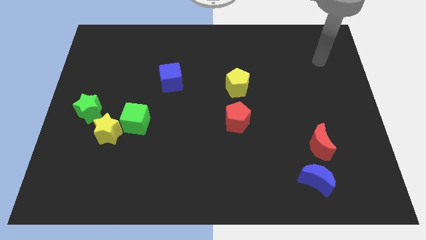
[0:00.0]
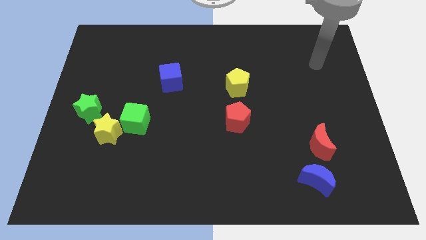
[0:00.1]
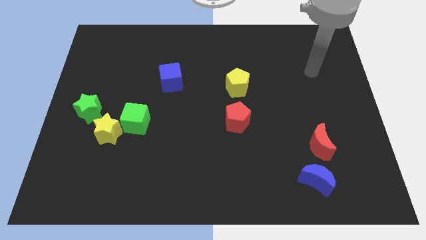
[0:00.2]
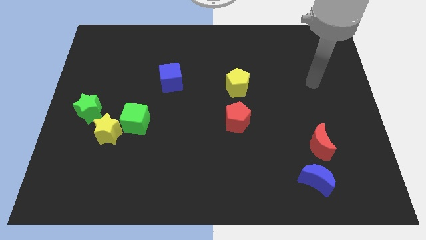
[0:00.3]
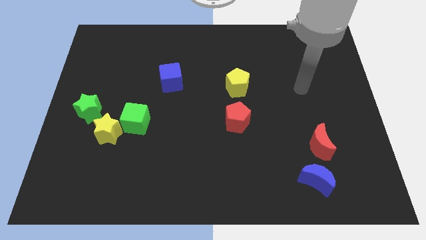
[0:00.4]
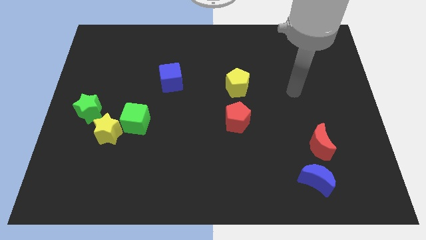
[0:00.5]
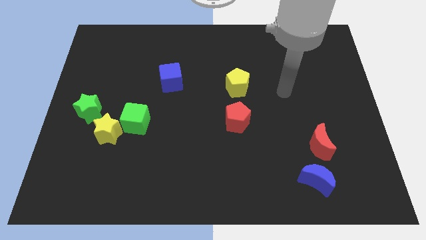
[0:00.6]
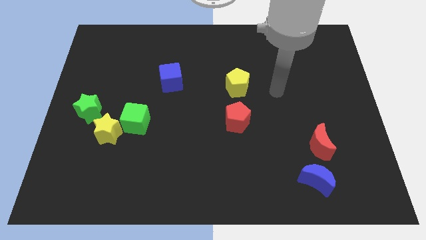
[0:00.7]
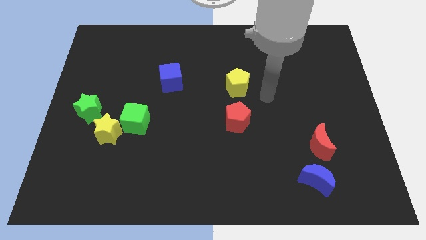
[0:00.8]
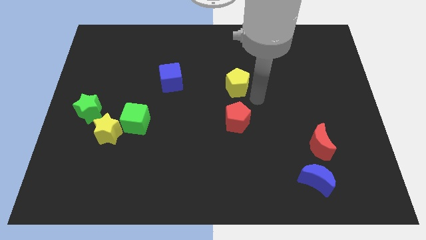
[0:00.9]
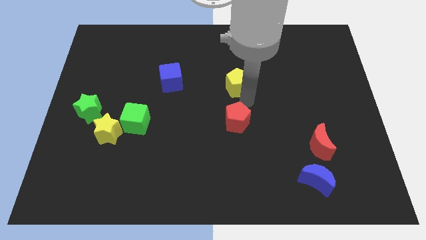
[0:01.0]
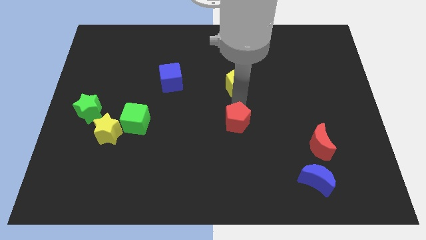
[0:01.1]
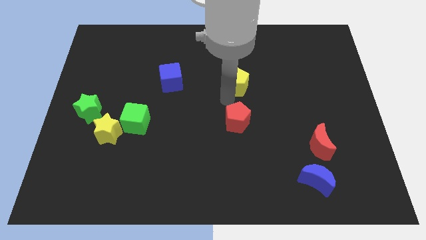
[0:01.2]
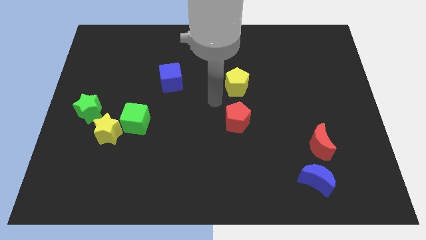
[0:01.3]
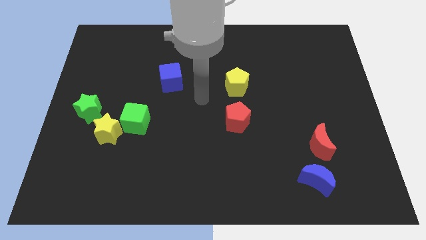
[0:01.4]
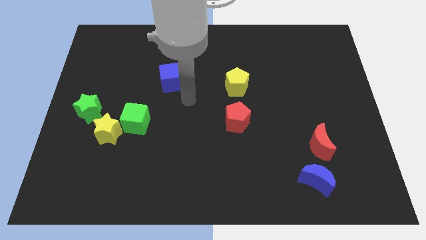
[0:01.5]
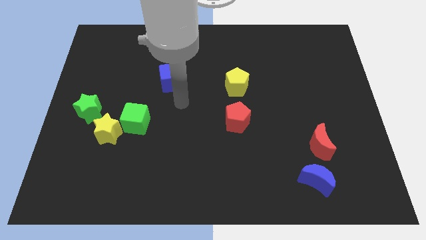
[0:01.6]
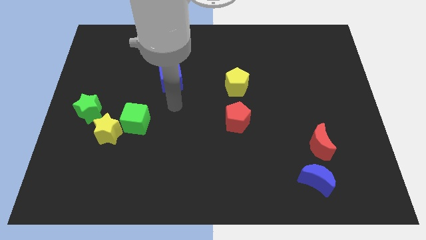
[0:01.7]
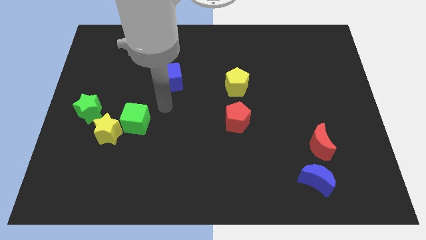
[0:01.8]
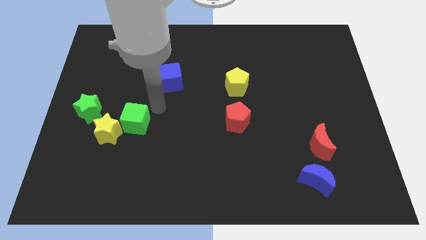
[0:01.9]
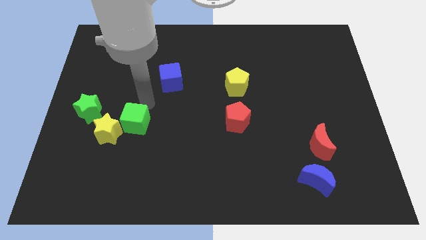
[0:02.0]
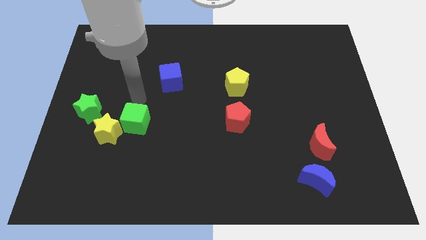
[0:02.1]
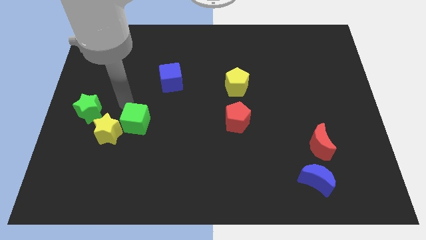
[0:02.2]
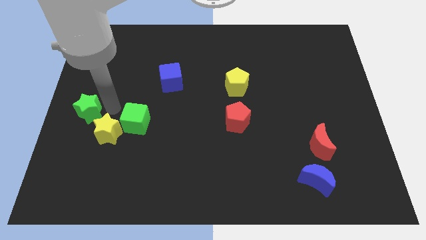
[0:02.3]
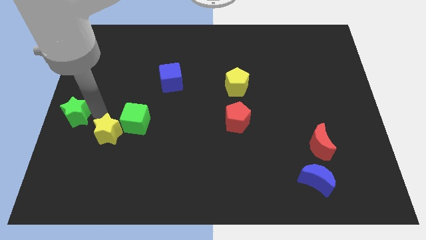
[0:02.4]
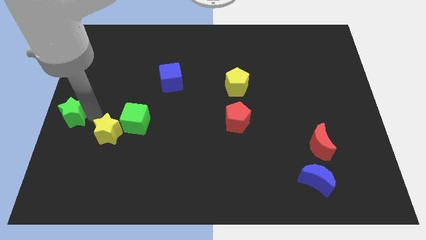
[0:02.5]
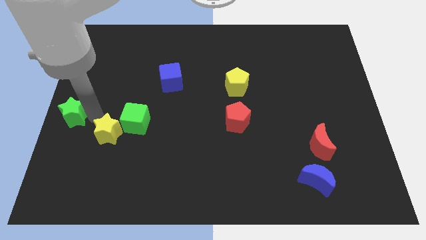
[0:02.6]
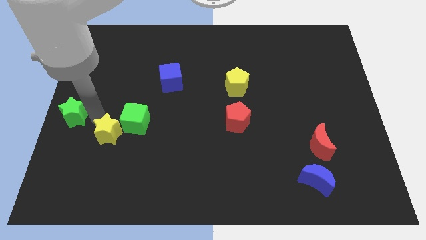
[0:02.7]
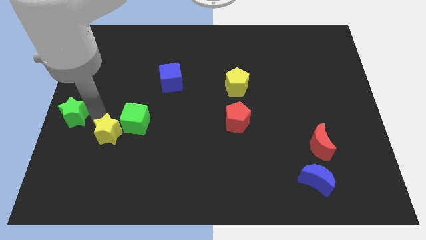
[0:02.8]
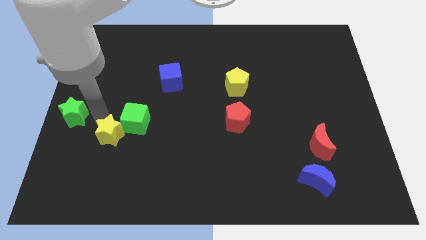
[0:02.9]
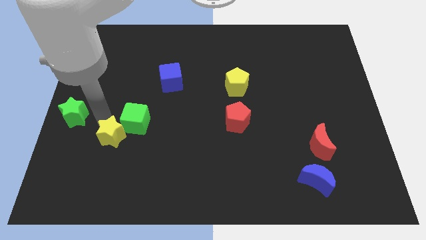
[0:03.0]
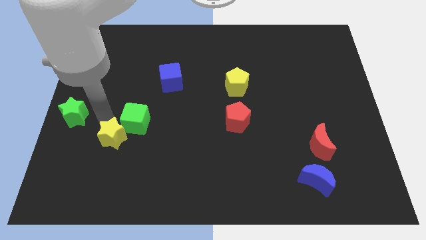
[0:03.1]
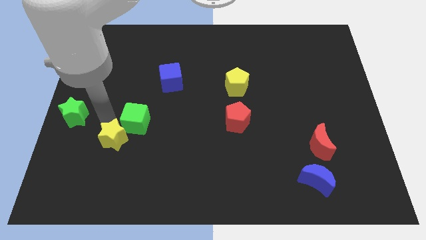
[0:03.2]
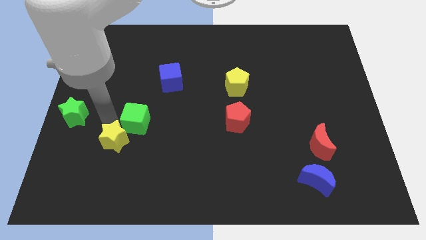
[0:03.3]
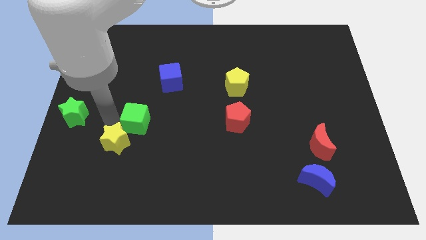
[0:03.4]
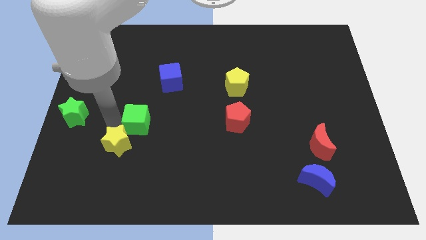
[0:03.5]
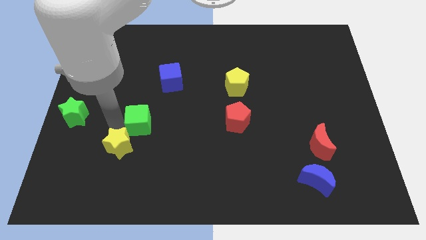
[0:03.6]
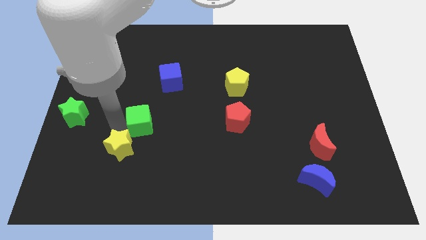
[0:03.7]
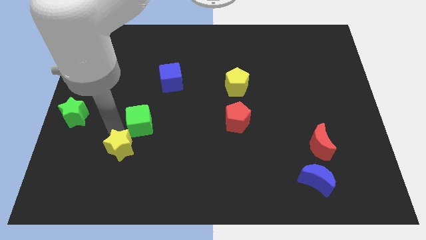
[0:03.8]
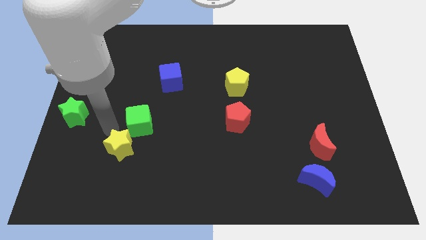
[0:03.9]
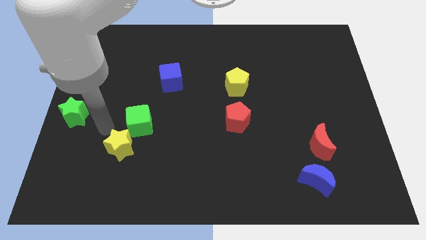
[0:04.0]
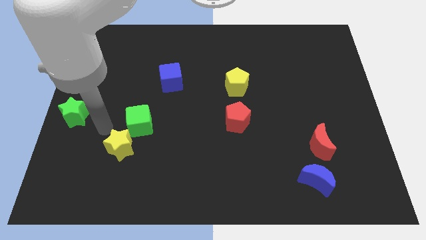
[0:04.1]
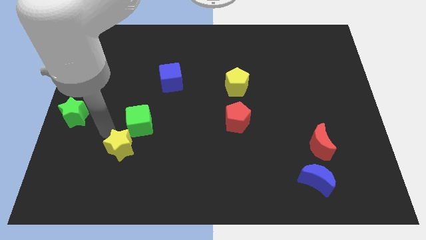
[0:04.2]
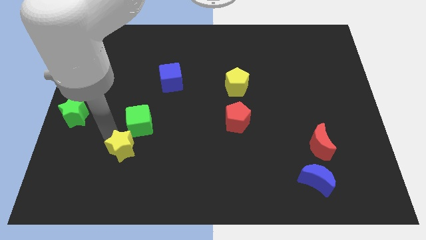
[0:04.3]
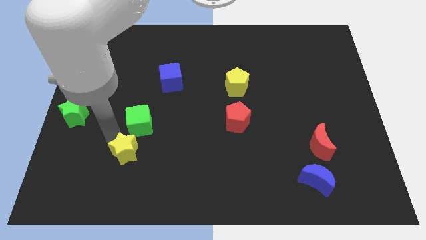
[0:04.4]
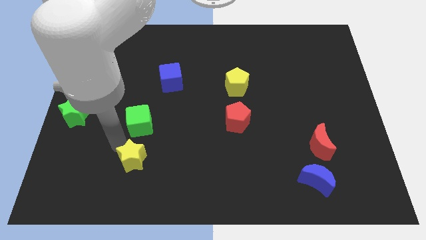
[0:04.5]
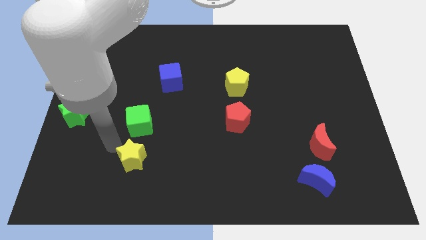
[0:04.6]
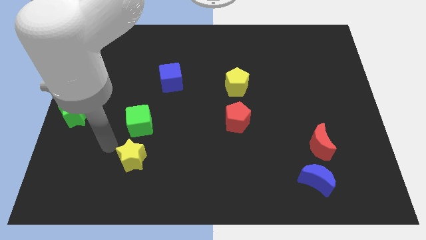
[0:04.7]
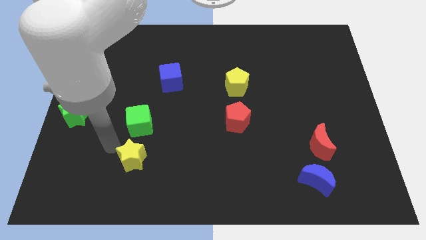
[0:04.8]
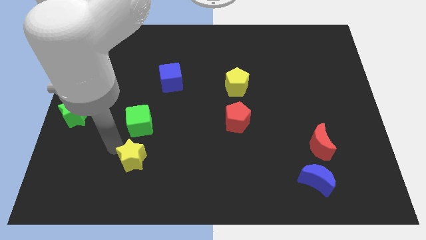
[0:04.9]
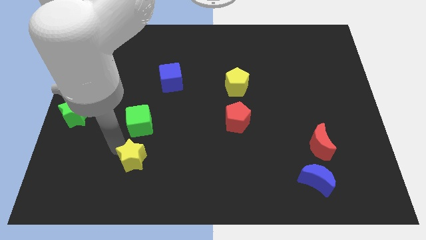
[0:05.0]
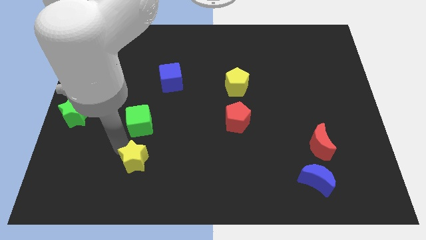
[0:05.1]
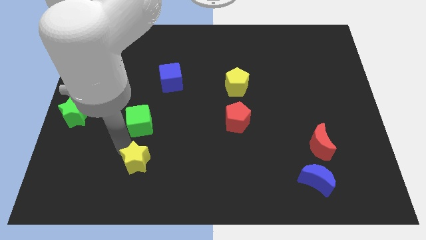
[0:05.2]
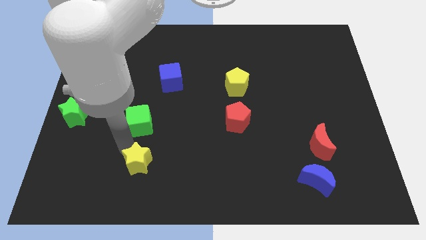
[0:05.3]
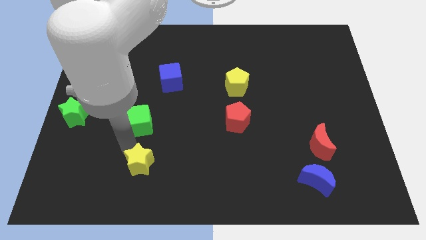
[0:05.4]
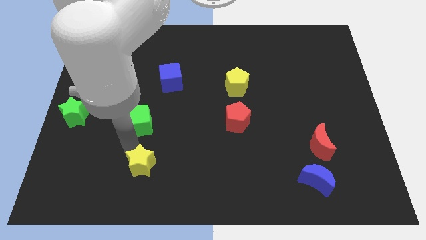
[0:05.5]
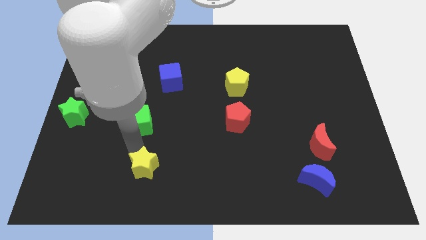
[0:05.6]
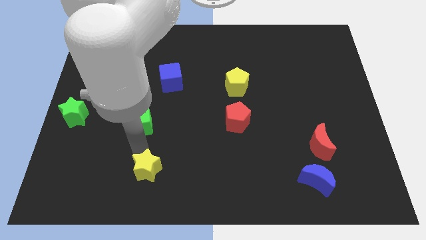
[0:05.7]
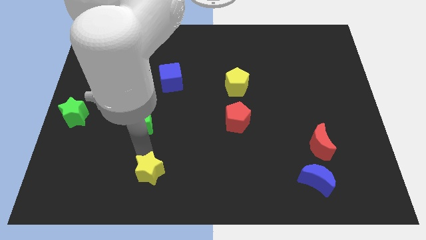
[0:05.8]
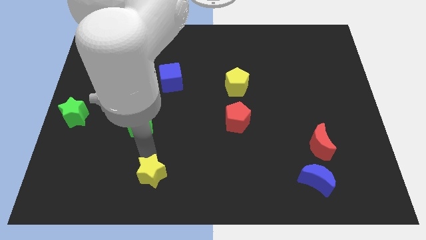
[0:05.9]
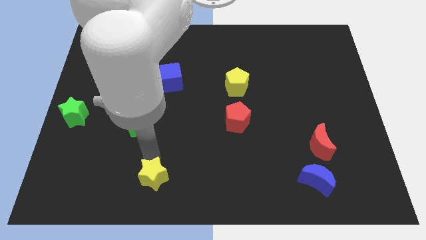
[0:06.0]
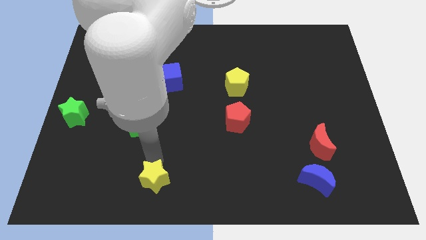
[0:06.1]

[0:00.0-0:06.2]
push the yellow star to the bottom
